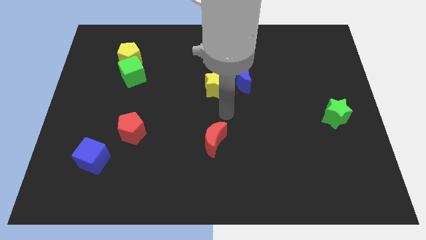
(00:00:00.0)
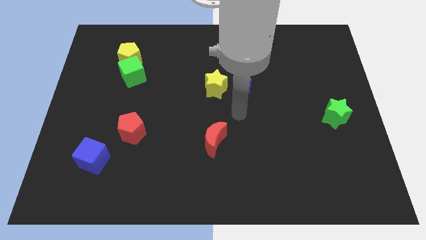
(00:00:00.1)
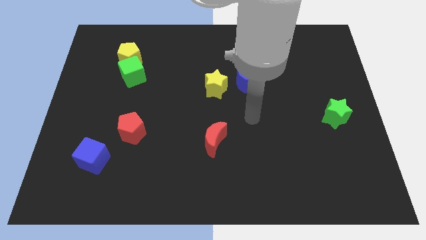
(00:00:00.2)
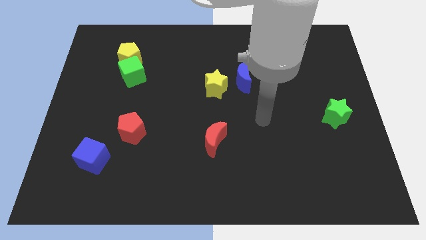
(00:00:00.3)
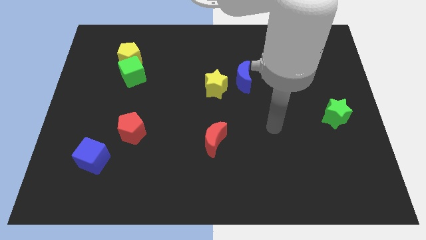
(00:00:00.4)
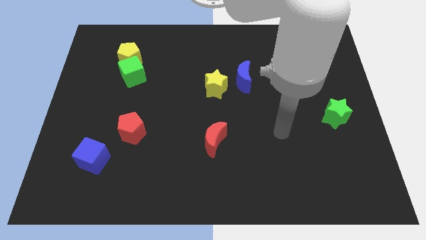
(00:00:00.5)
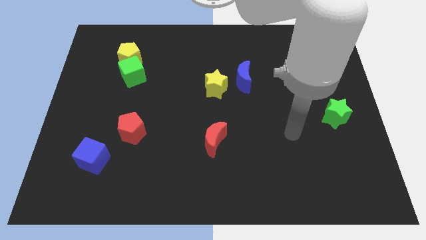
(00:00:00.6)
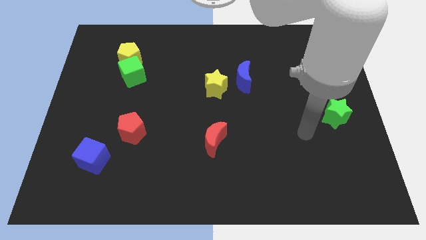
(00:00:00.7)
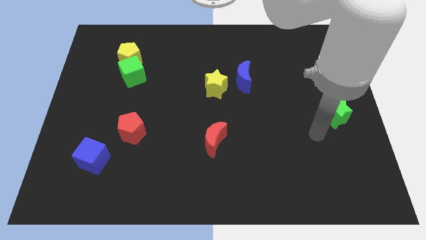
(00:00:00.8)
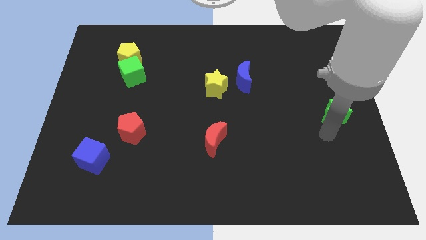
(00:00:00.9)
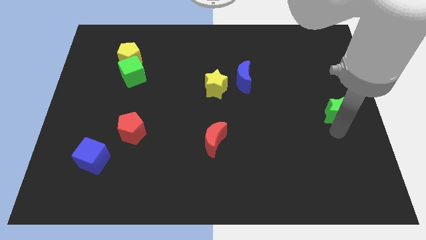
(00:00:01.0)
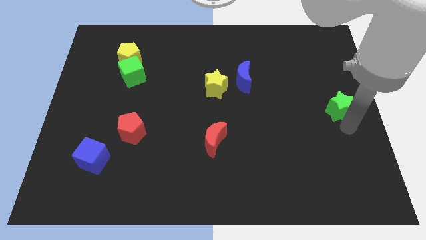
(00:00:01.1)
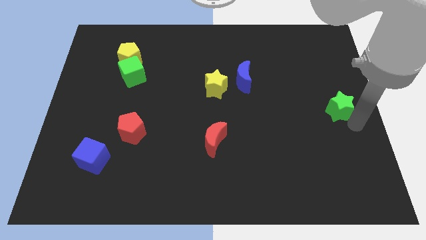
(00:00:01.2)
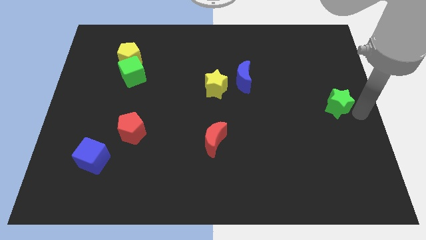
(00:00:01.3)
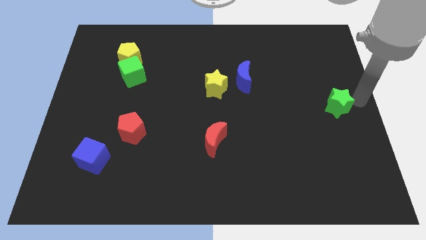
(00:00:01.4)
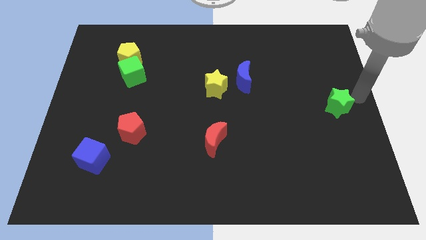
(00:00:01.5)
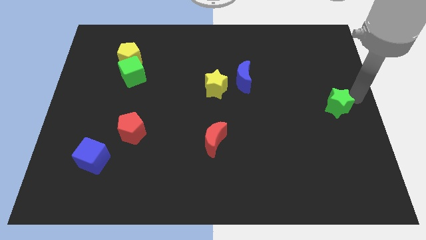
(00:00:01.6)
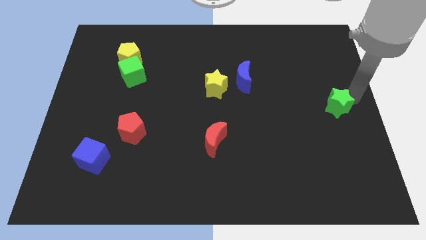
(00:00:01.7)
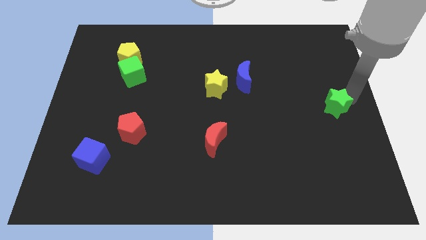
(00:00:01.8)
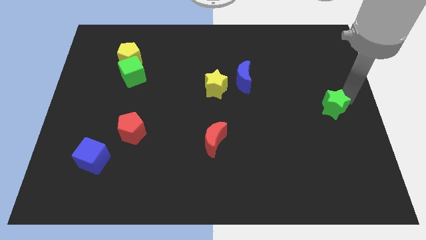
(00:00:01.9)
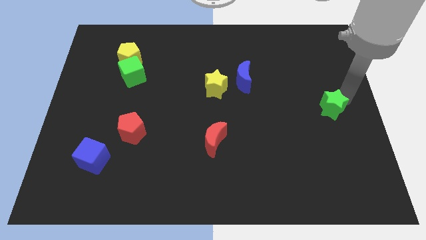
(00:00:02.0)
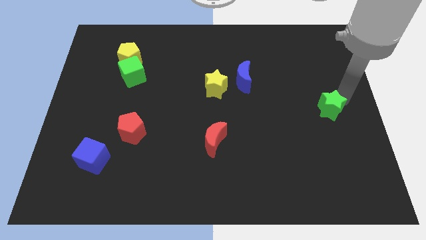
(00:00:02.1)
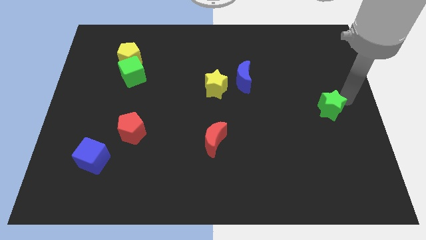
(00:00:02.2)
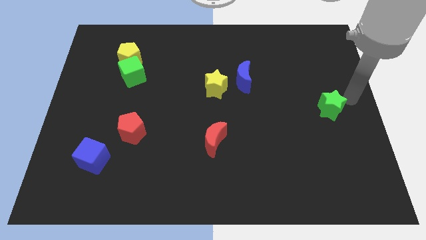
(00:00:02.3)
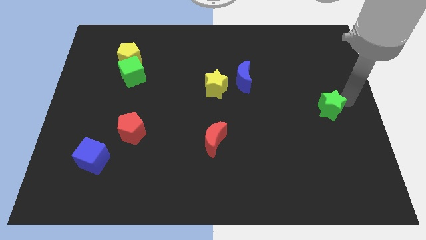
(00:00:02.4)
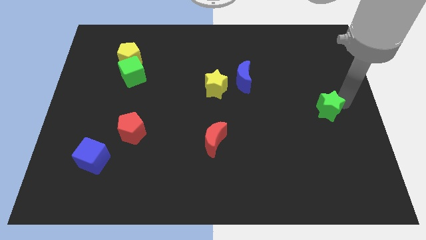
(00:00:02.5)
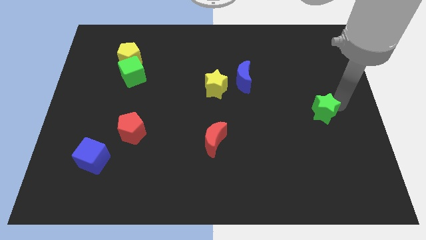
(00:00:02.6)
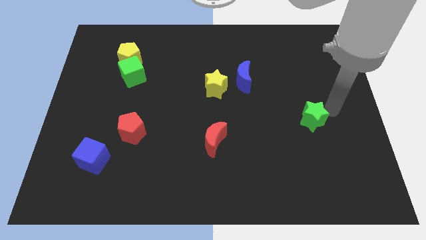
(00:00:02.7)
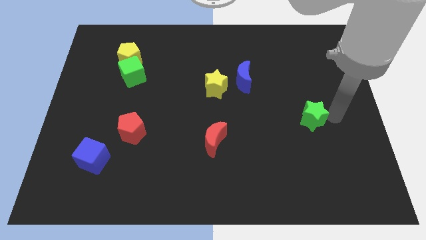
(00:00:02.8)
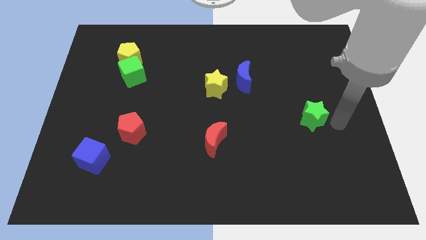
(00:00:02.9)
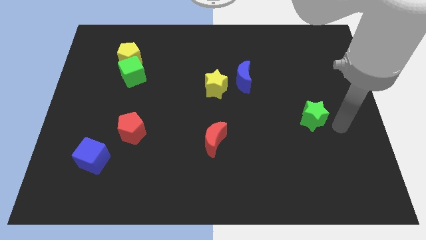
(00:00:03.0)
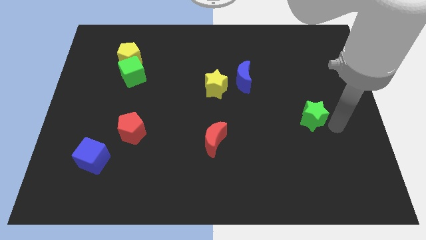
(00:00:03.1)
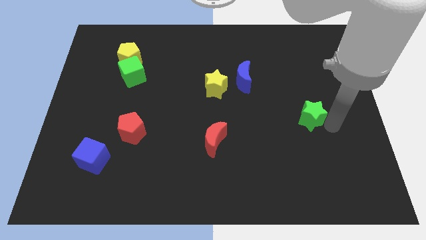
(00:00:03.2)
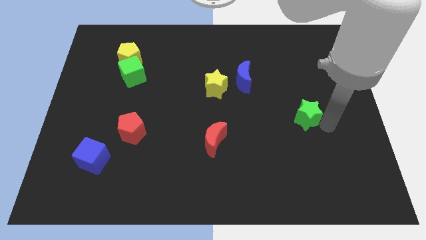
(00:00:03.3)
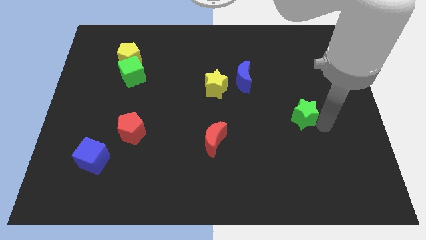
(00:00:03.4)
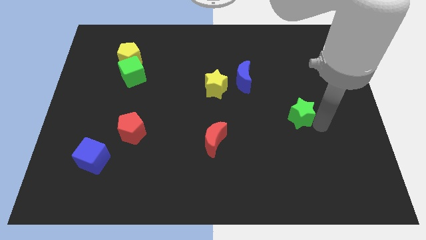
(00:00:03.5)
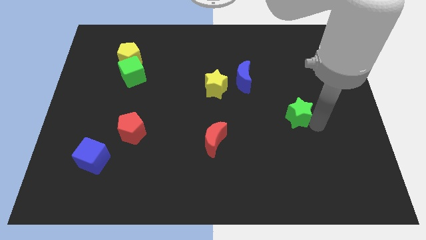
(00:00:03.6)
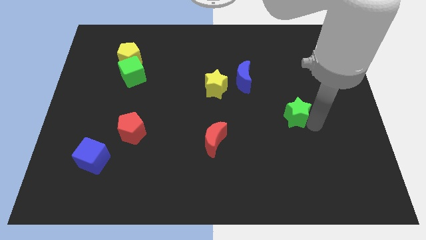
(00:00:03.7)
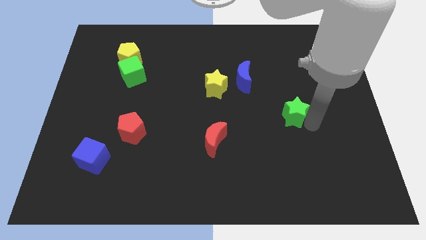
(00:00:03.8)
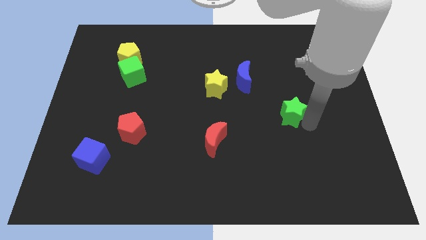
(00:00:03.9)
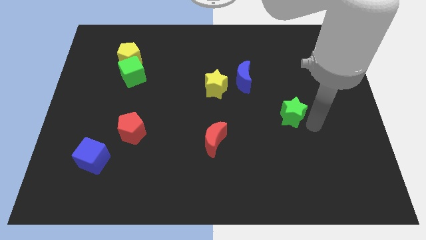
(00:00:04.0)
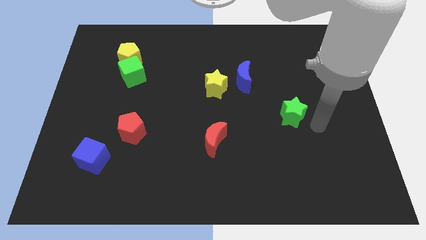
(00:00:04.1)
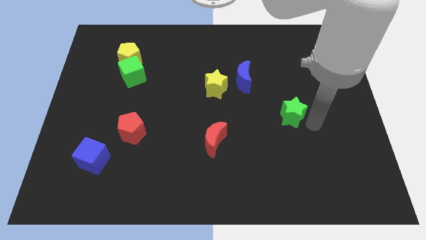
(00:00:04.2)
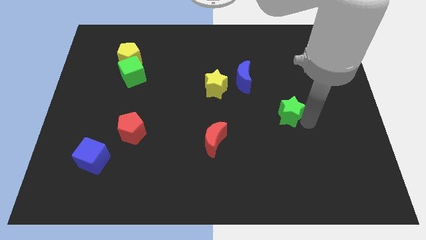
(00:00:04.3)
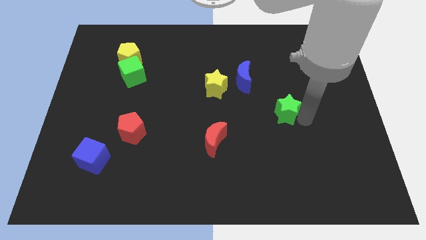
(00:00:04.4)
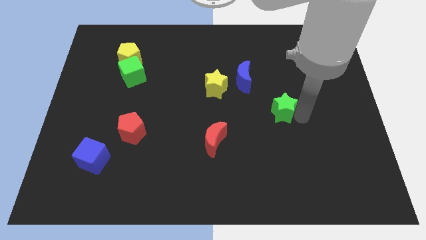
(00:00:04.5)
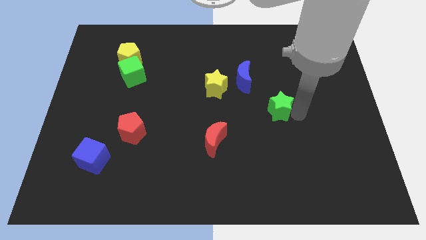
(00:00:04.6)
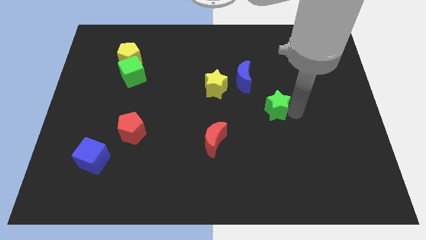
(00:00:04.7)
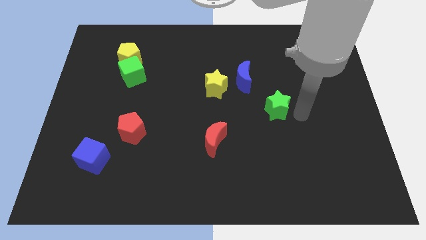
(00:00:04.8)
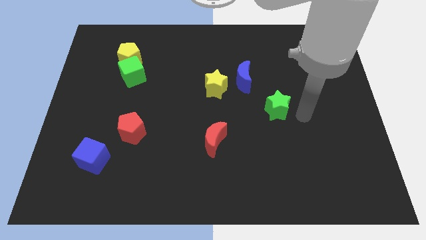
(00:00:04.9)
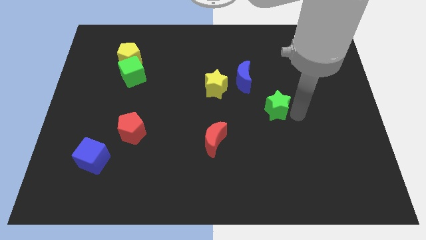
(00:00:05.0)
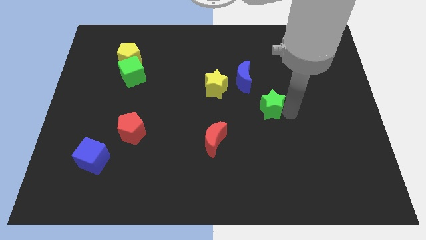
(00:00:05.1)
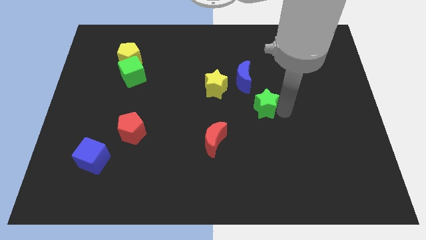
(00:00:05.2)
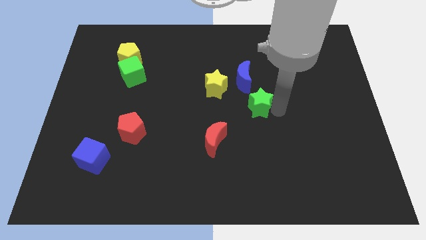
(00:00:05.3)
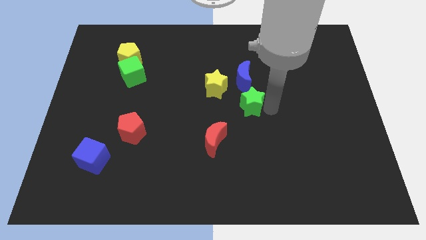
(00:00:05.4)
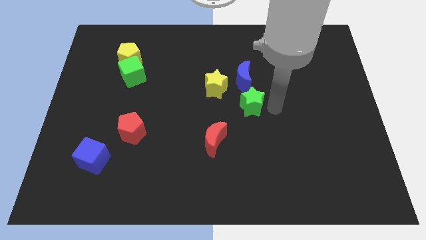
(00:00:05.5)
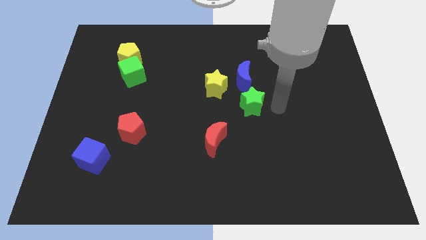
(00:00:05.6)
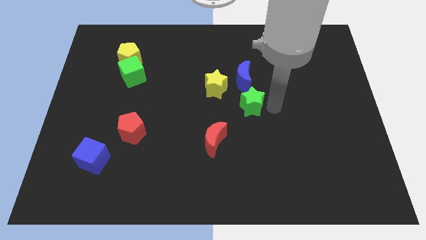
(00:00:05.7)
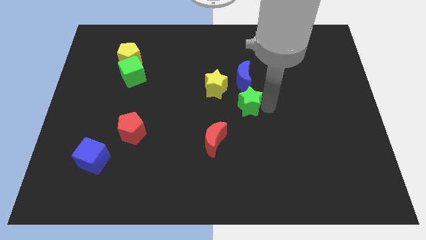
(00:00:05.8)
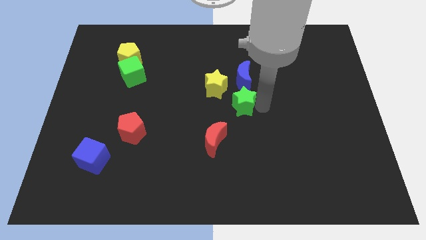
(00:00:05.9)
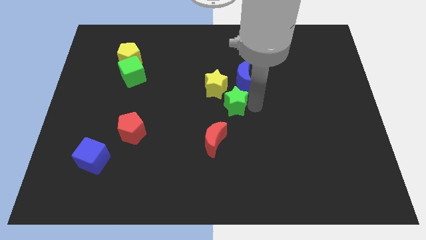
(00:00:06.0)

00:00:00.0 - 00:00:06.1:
put the green star to the top side of the red moon
